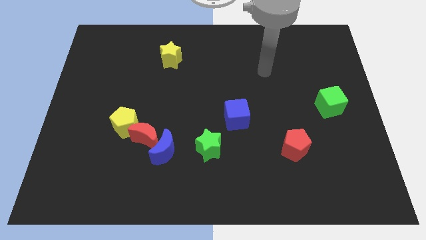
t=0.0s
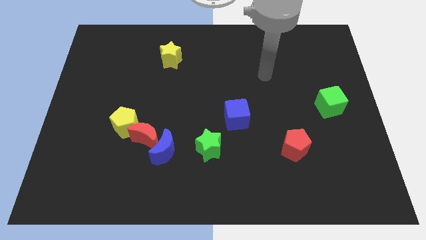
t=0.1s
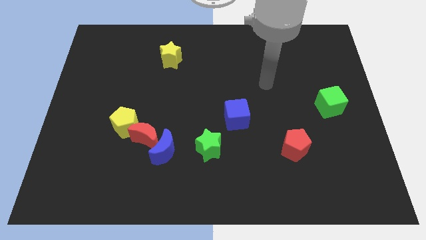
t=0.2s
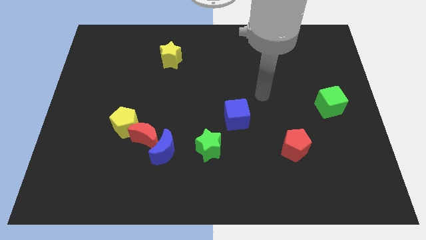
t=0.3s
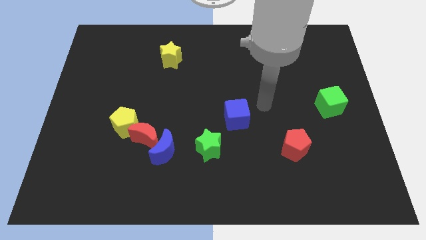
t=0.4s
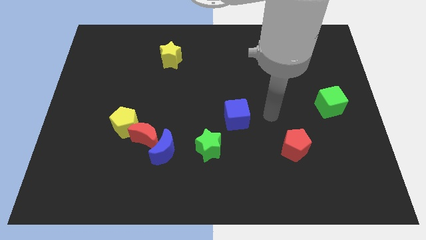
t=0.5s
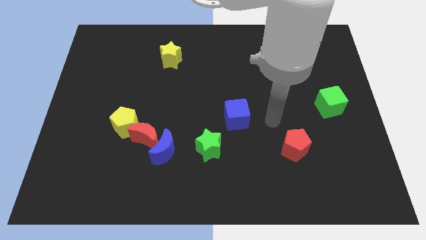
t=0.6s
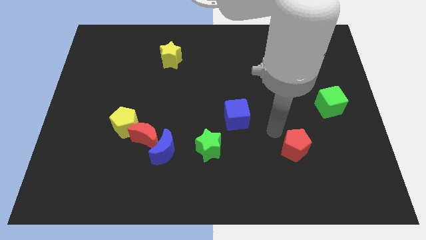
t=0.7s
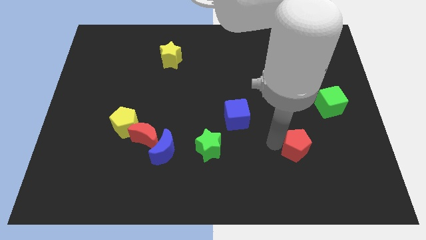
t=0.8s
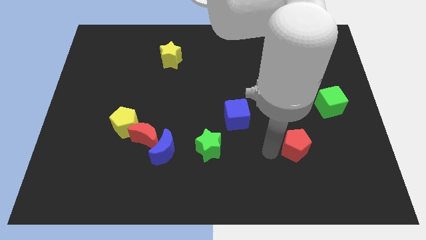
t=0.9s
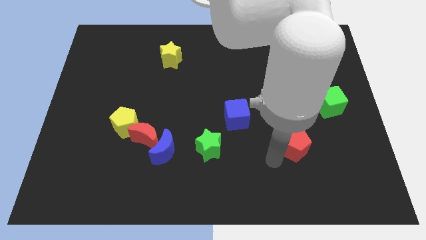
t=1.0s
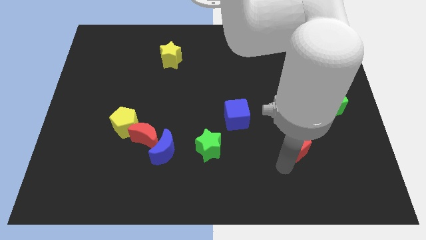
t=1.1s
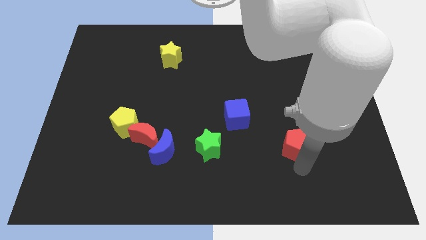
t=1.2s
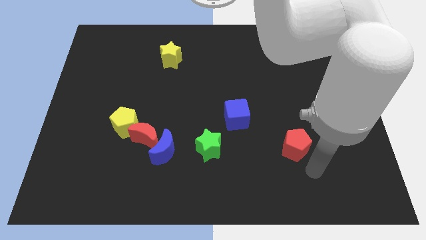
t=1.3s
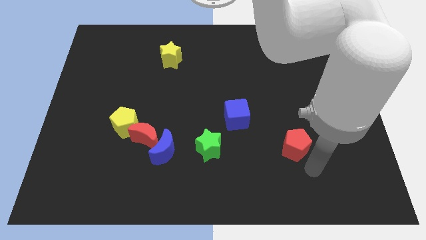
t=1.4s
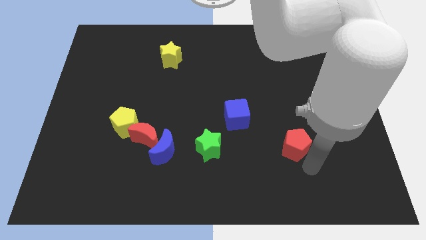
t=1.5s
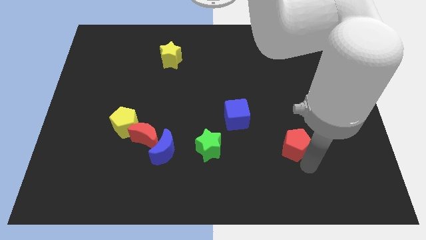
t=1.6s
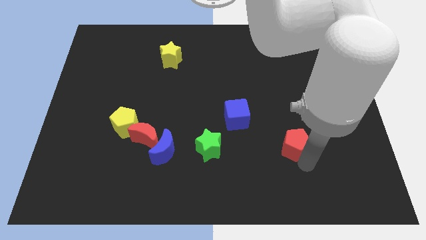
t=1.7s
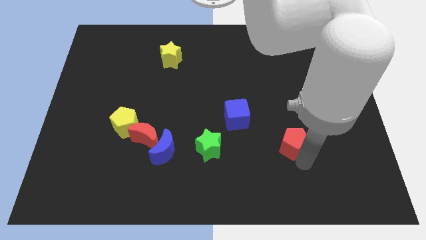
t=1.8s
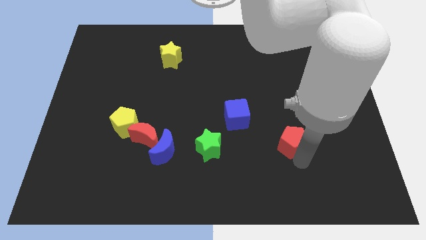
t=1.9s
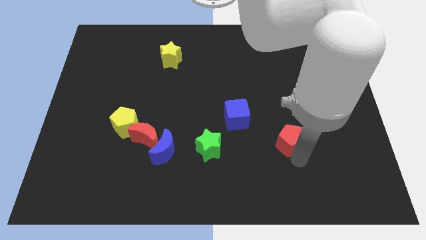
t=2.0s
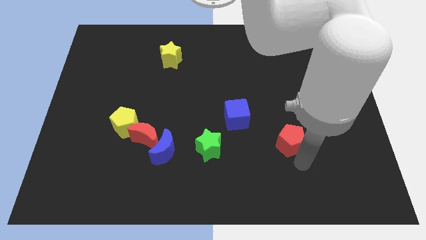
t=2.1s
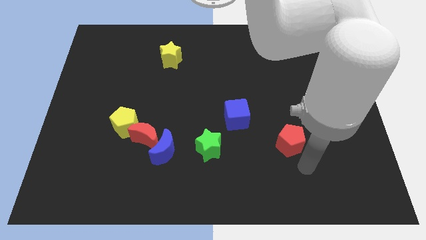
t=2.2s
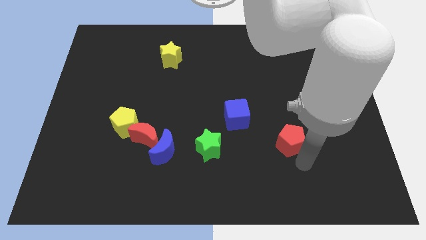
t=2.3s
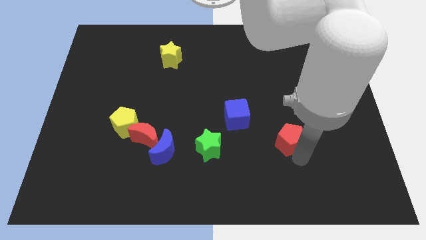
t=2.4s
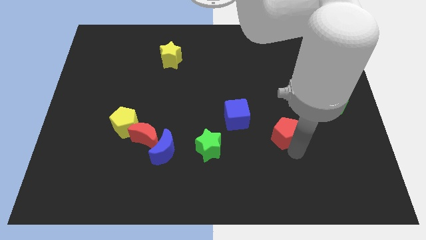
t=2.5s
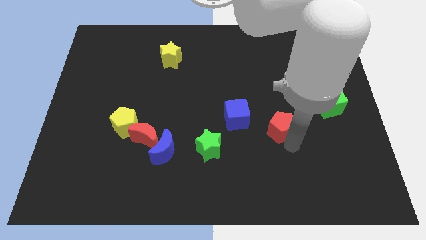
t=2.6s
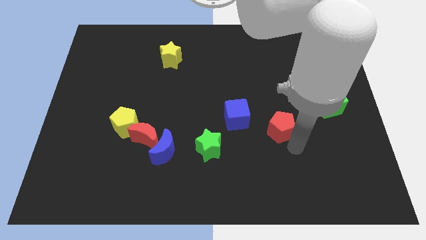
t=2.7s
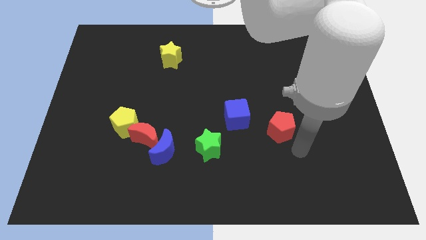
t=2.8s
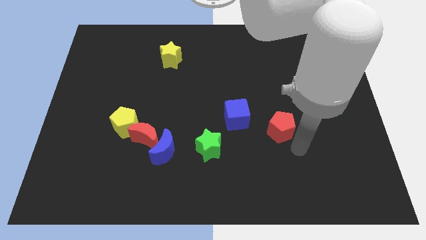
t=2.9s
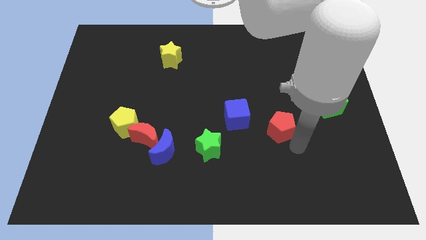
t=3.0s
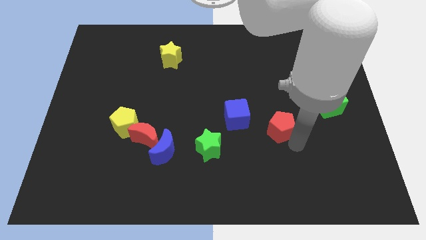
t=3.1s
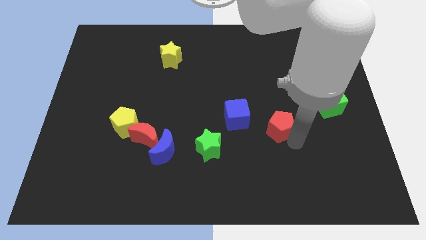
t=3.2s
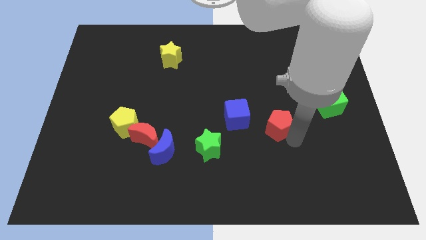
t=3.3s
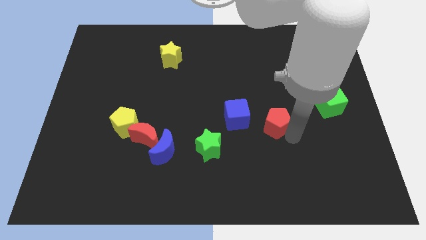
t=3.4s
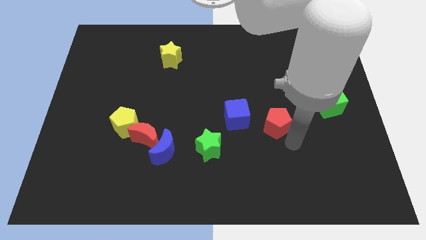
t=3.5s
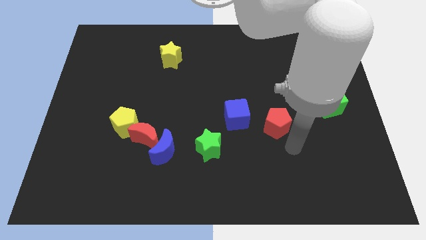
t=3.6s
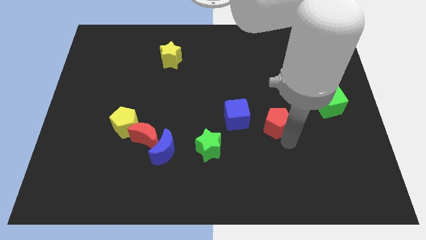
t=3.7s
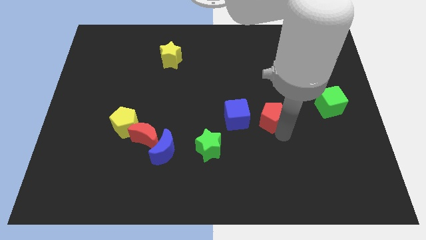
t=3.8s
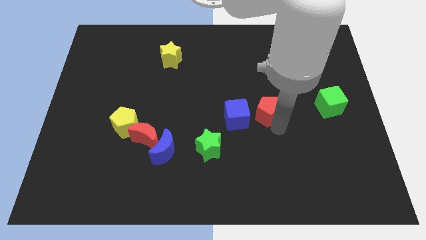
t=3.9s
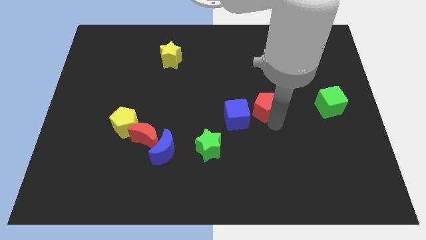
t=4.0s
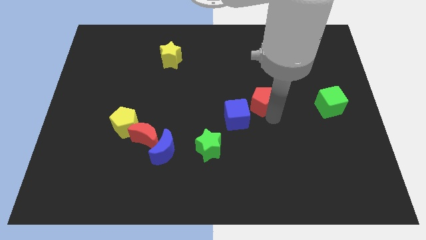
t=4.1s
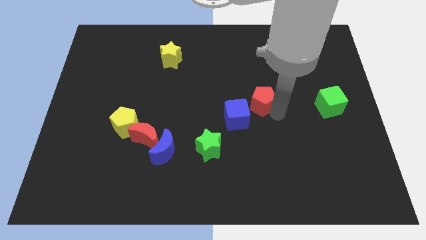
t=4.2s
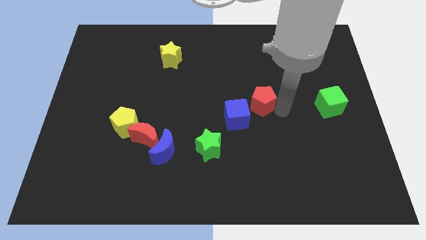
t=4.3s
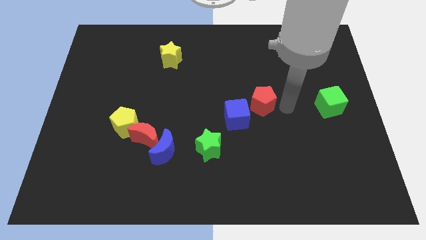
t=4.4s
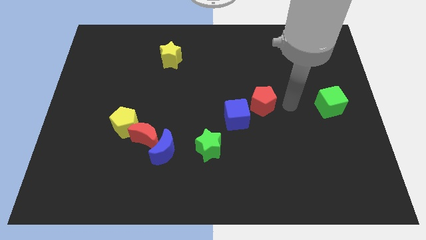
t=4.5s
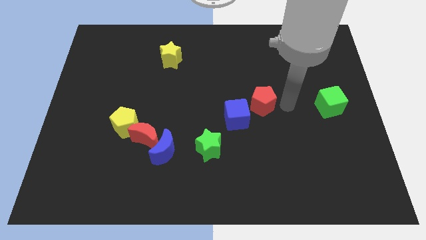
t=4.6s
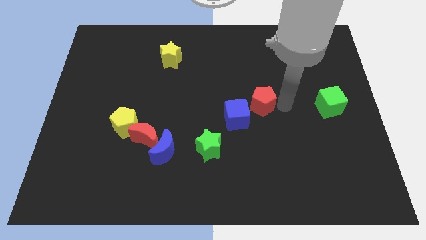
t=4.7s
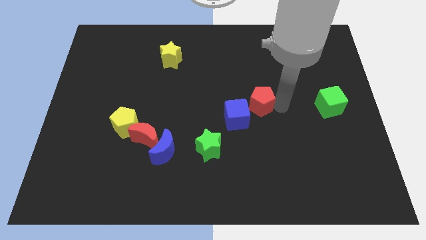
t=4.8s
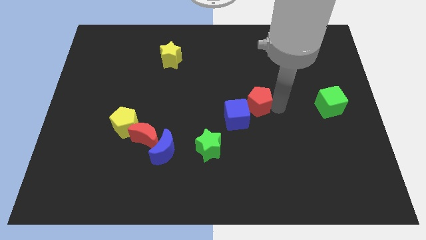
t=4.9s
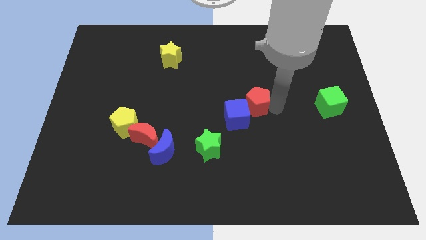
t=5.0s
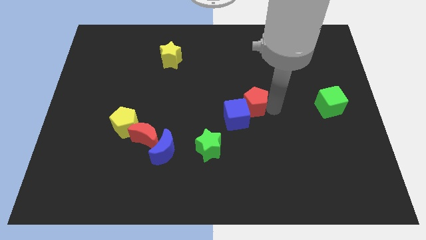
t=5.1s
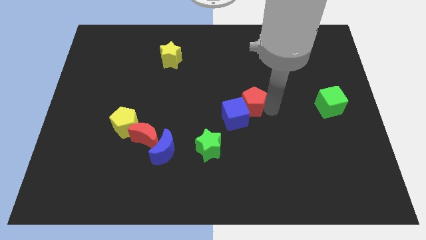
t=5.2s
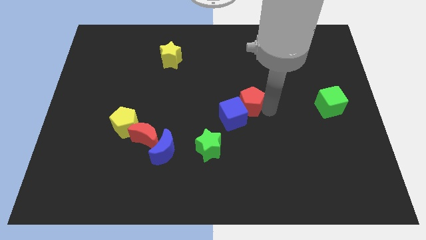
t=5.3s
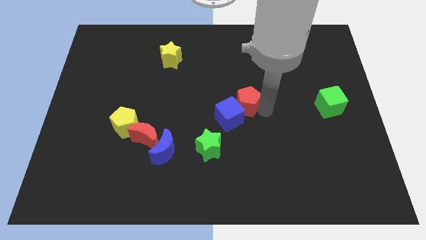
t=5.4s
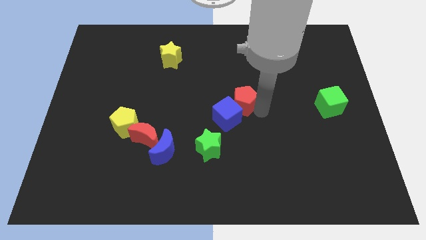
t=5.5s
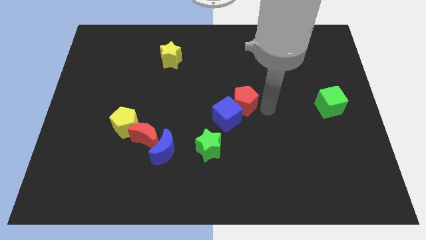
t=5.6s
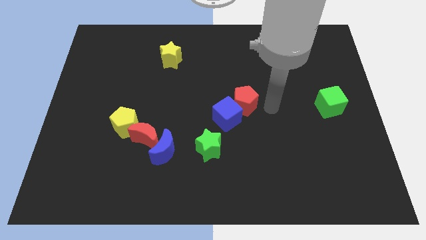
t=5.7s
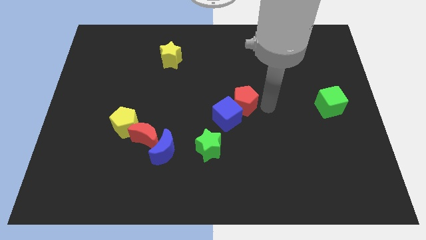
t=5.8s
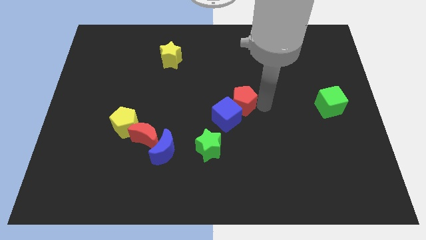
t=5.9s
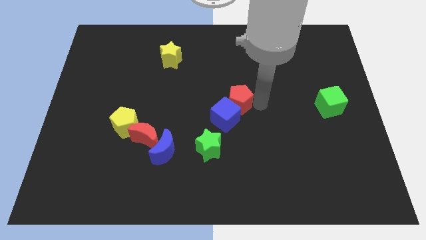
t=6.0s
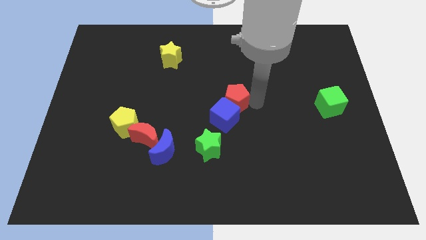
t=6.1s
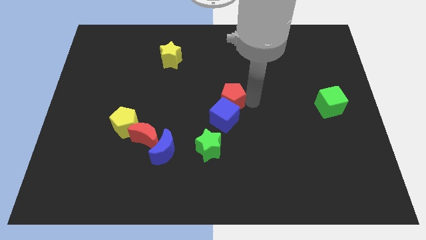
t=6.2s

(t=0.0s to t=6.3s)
put the red pentagon to the top left side of the blue cube

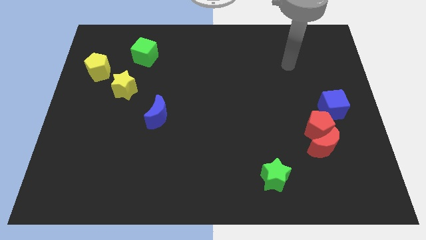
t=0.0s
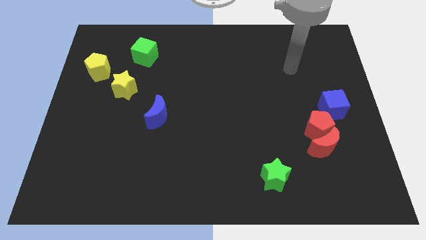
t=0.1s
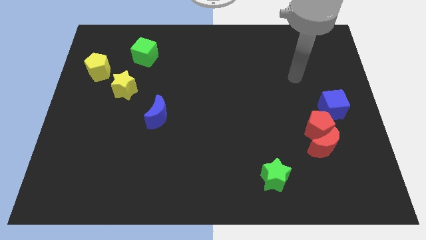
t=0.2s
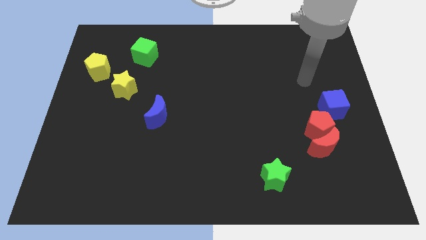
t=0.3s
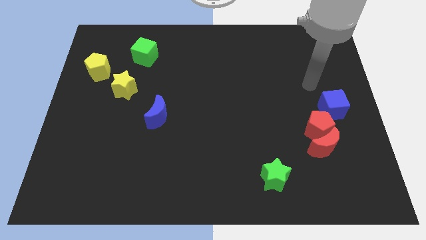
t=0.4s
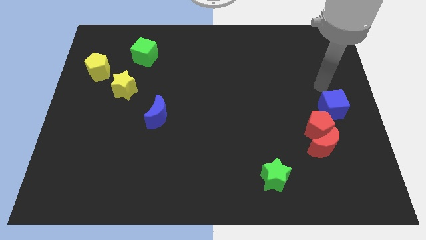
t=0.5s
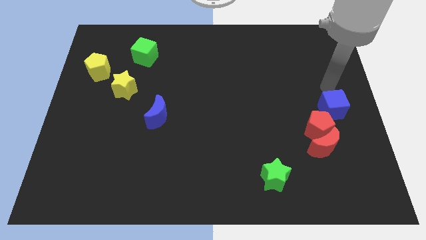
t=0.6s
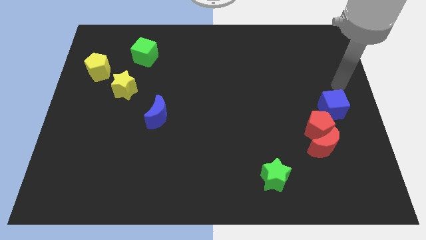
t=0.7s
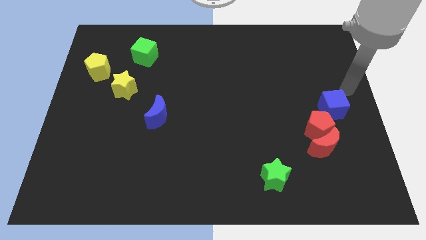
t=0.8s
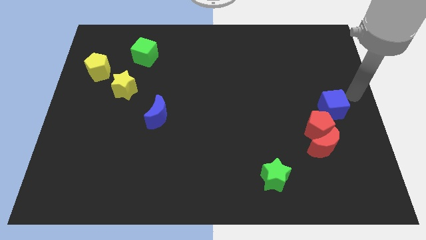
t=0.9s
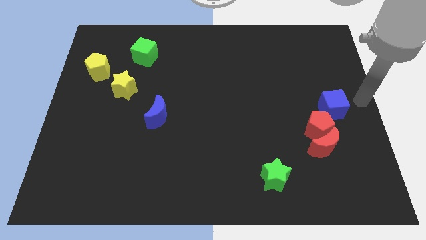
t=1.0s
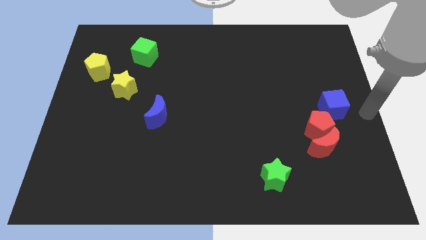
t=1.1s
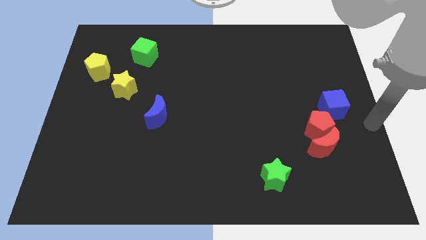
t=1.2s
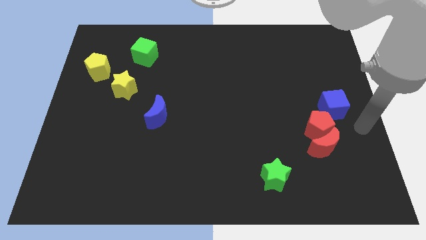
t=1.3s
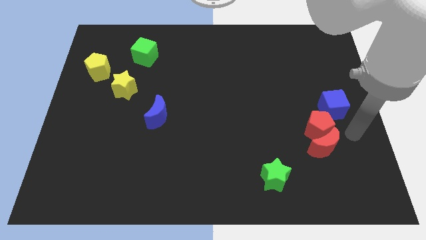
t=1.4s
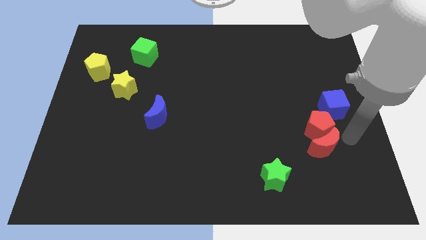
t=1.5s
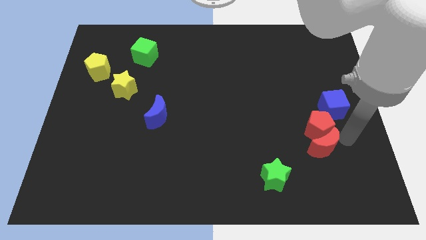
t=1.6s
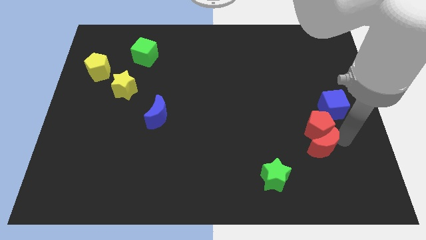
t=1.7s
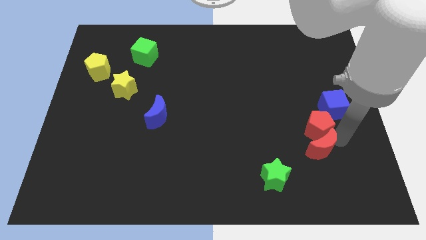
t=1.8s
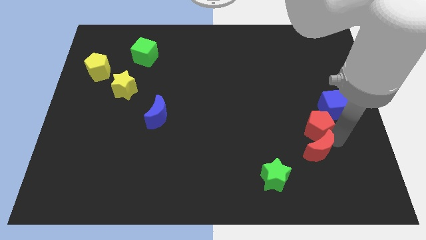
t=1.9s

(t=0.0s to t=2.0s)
put the red moon to the top right of the green star
